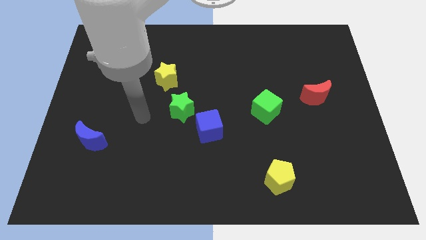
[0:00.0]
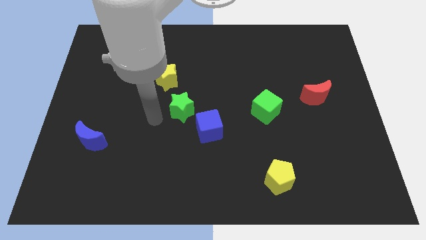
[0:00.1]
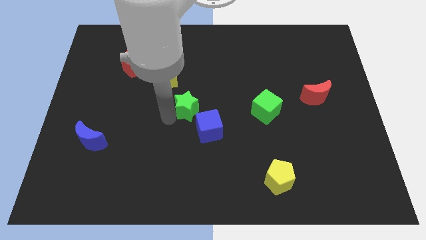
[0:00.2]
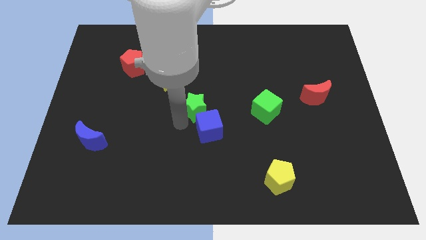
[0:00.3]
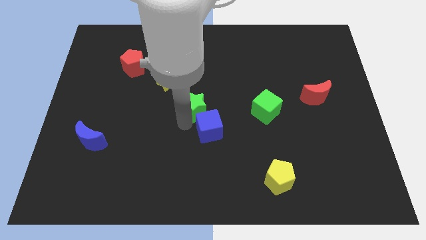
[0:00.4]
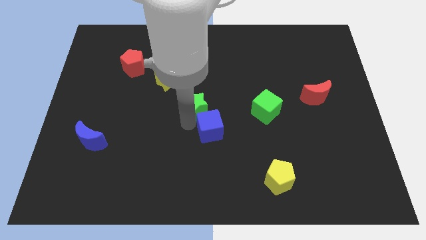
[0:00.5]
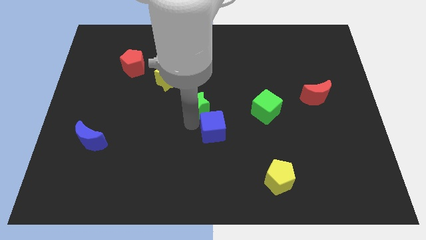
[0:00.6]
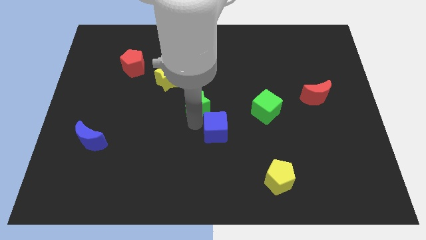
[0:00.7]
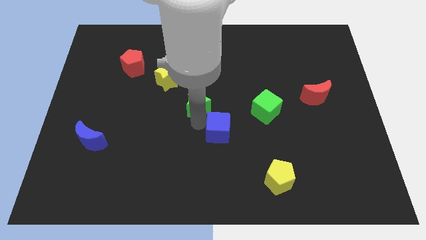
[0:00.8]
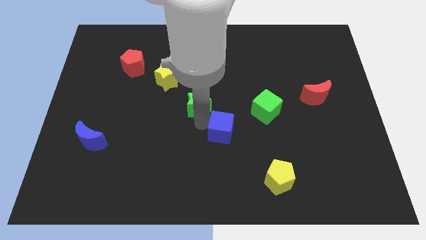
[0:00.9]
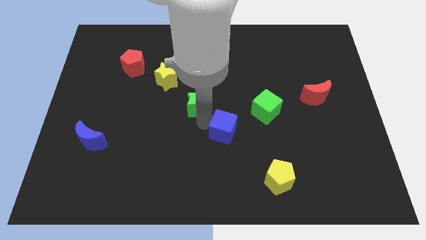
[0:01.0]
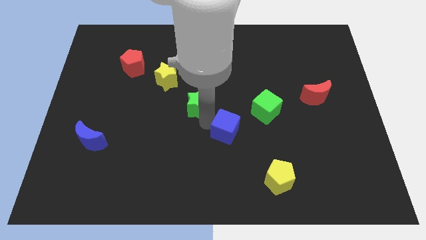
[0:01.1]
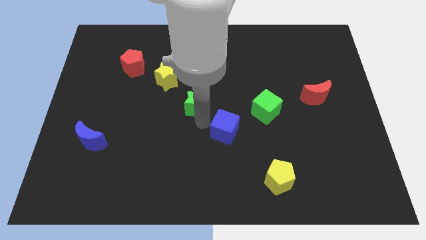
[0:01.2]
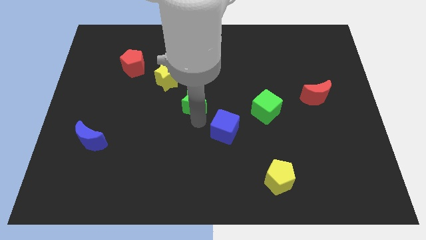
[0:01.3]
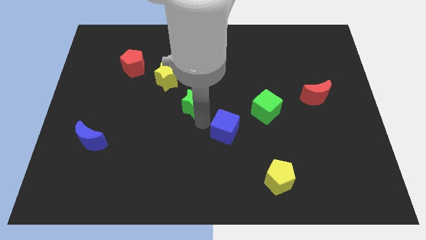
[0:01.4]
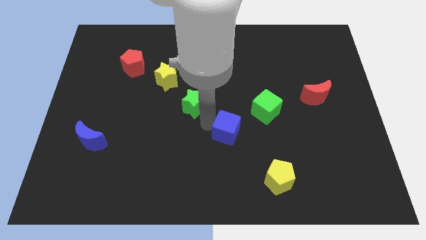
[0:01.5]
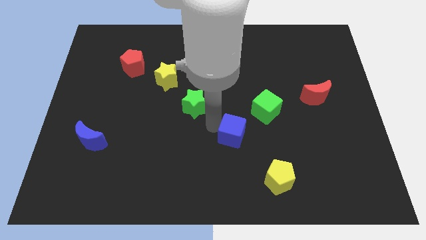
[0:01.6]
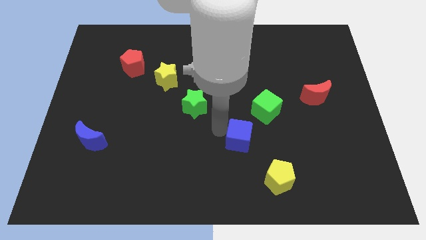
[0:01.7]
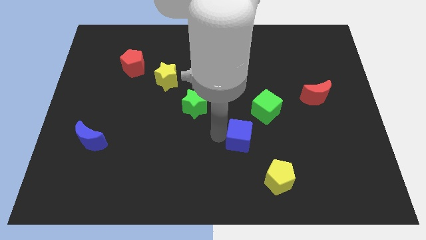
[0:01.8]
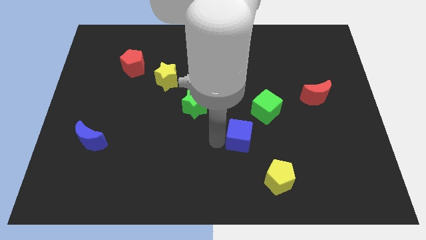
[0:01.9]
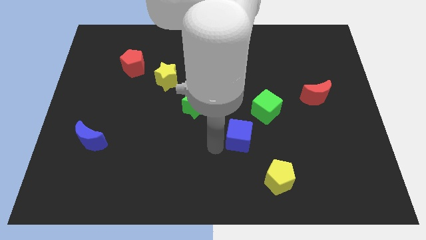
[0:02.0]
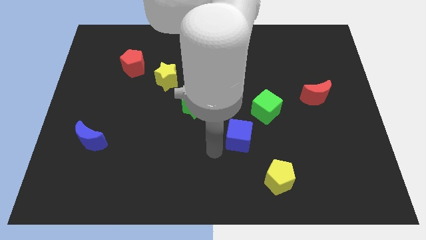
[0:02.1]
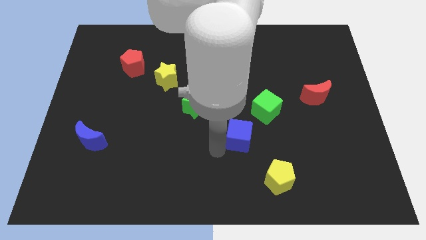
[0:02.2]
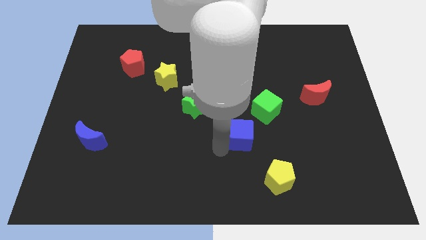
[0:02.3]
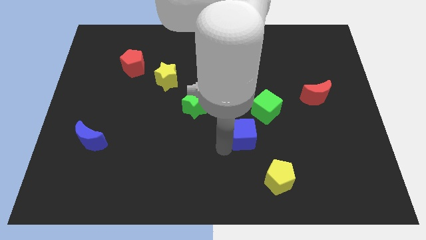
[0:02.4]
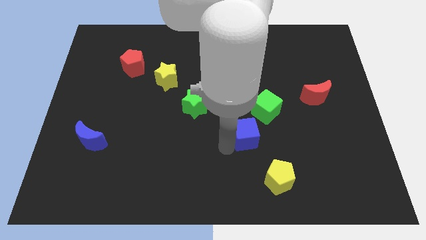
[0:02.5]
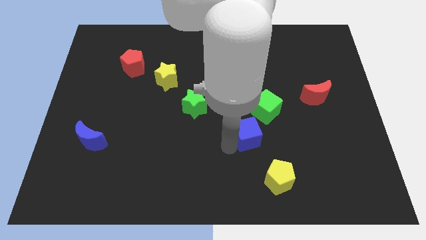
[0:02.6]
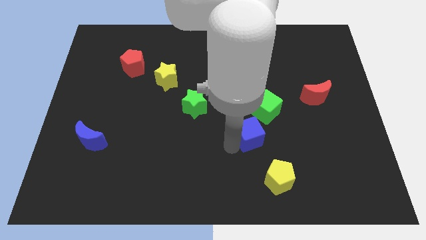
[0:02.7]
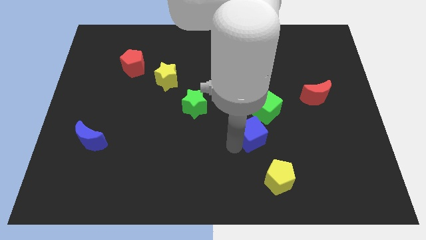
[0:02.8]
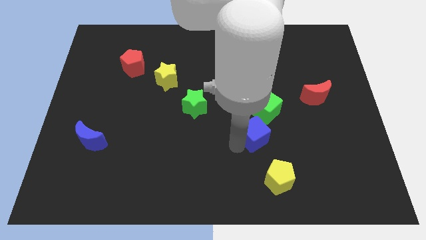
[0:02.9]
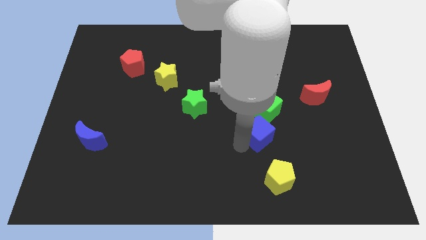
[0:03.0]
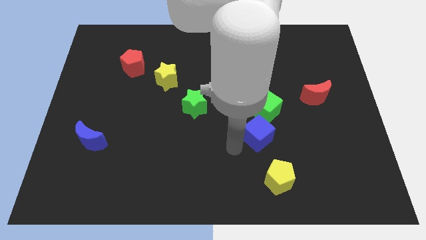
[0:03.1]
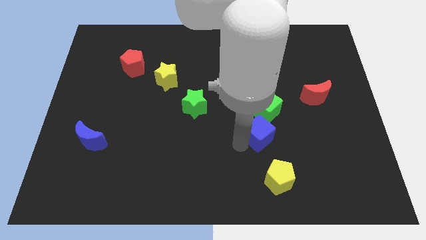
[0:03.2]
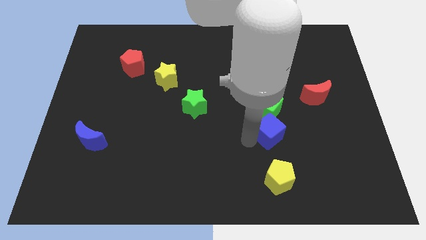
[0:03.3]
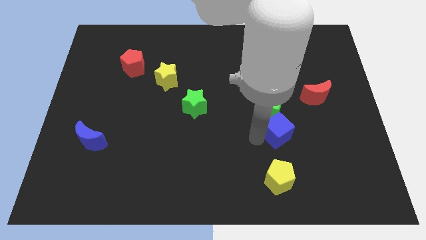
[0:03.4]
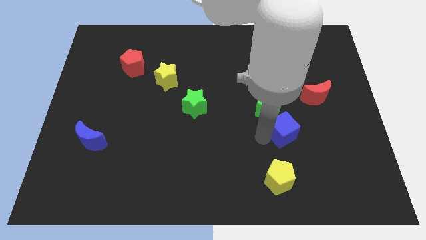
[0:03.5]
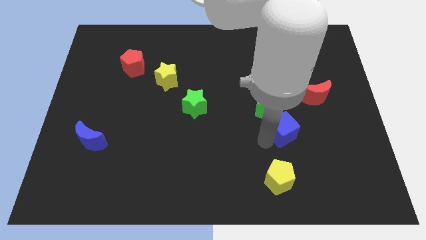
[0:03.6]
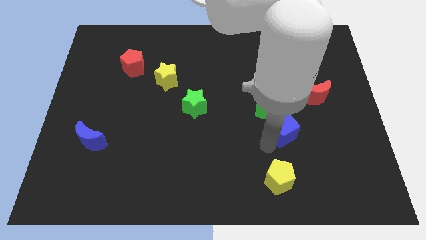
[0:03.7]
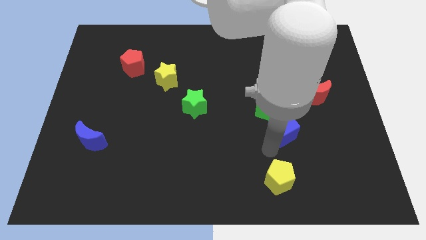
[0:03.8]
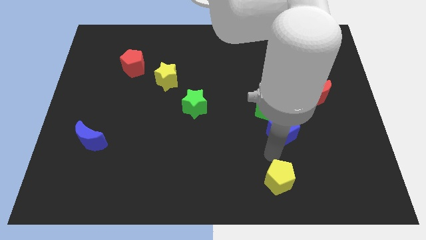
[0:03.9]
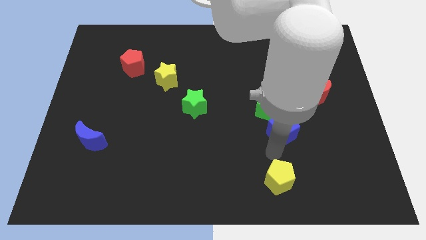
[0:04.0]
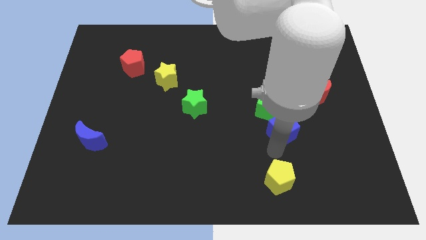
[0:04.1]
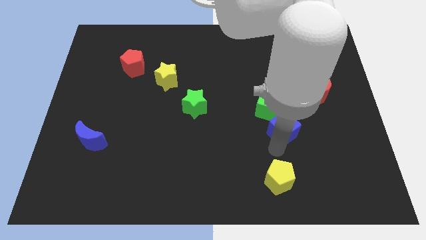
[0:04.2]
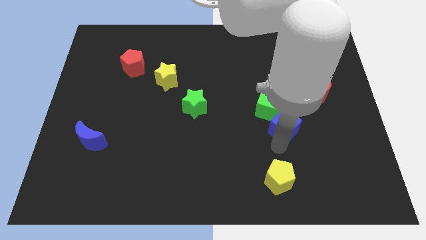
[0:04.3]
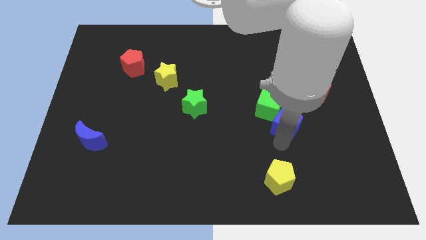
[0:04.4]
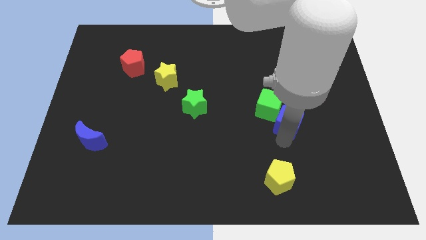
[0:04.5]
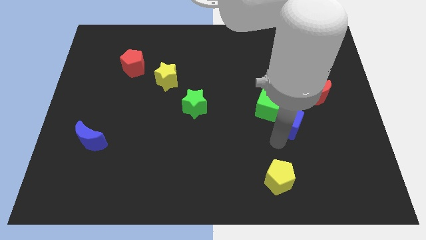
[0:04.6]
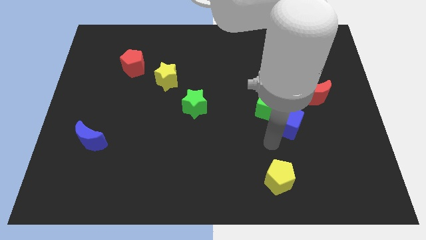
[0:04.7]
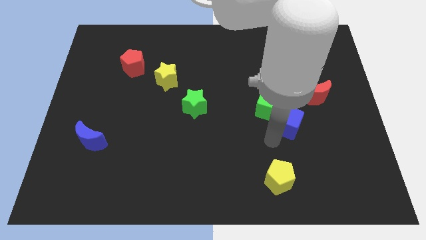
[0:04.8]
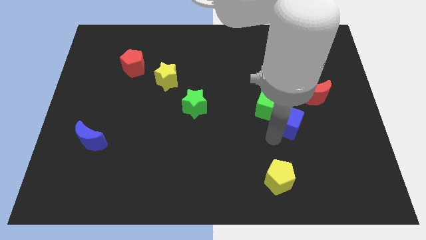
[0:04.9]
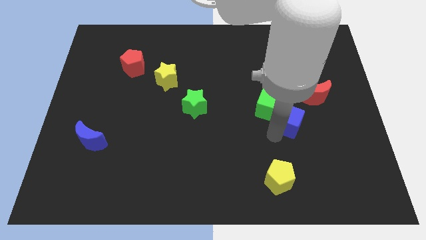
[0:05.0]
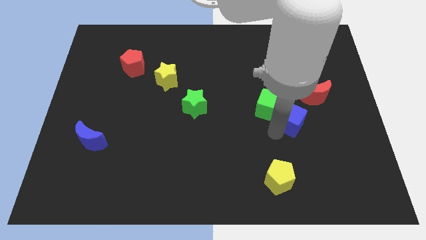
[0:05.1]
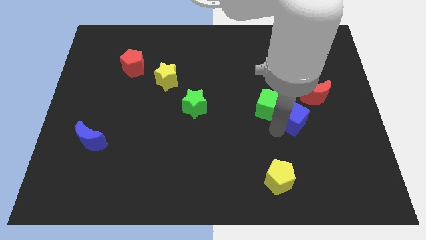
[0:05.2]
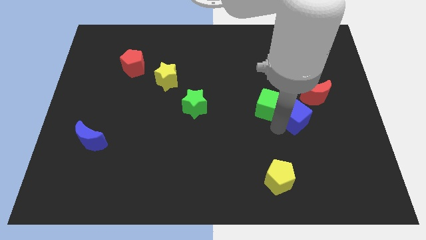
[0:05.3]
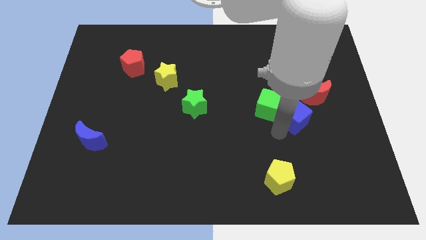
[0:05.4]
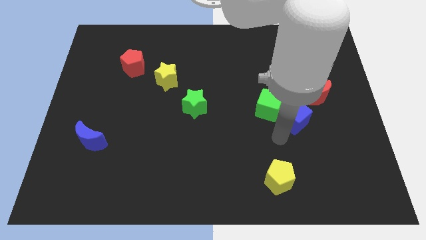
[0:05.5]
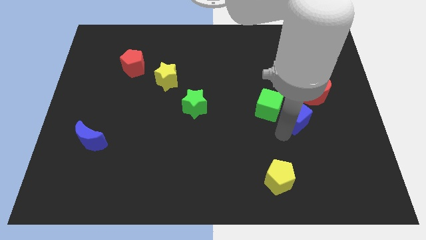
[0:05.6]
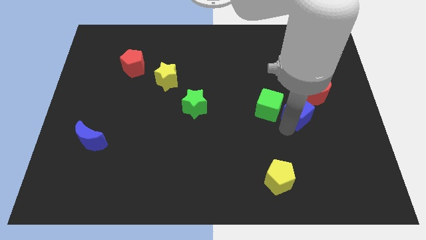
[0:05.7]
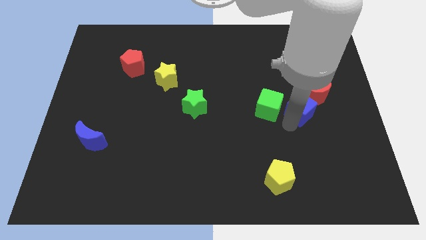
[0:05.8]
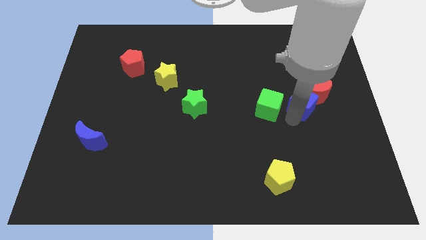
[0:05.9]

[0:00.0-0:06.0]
slide the blue cube towards the red moon

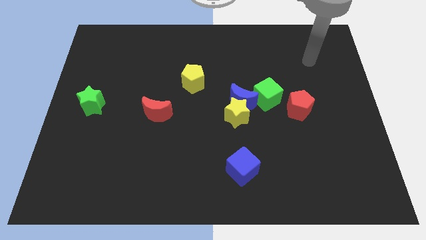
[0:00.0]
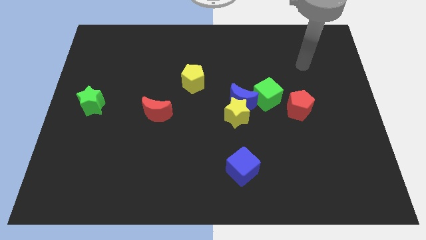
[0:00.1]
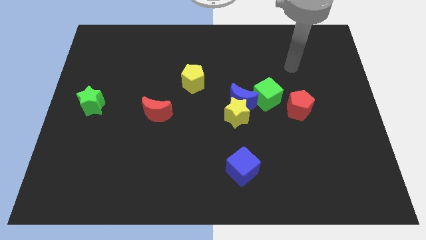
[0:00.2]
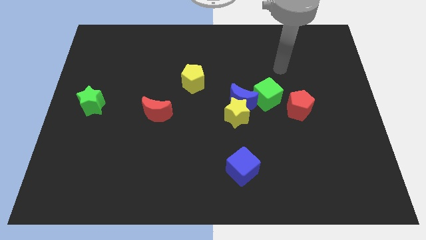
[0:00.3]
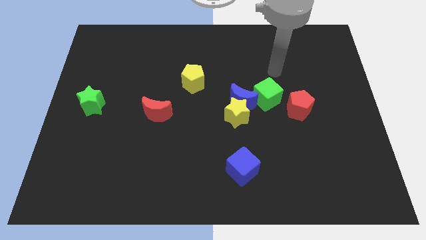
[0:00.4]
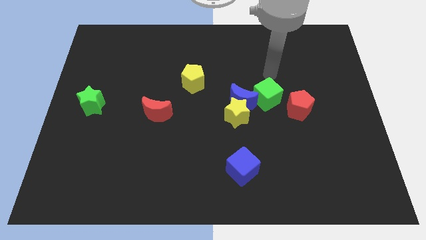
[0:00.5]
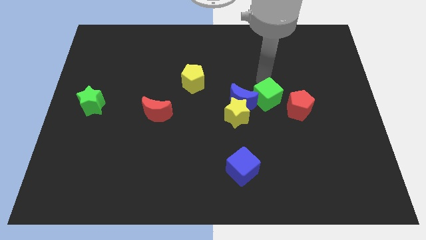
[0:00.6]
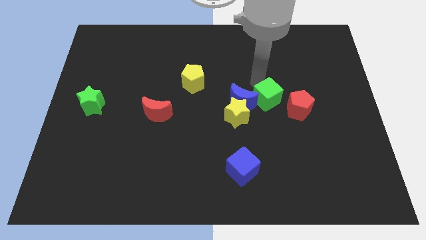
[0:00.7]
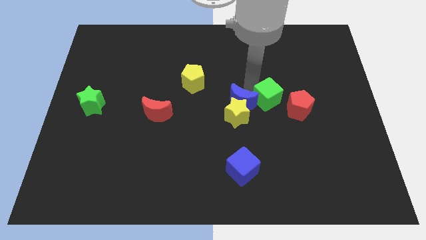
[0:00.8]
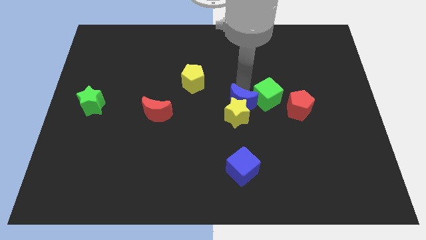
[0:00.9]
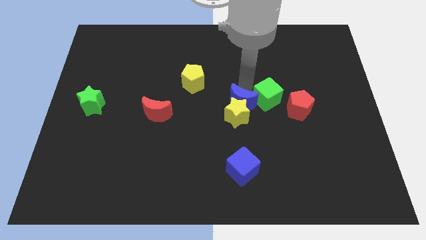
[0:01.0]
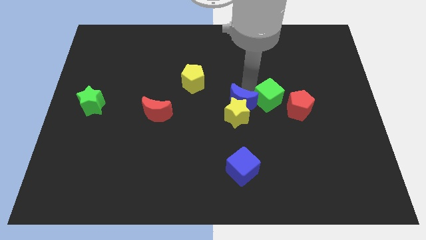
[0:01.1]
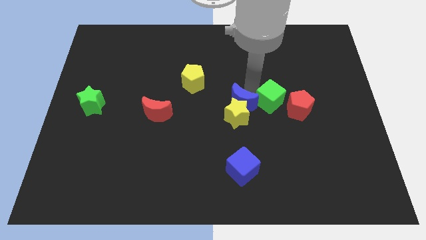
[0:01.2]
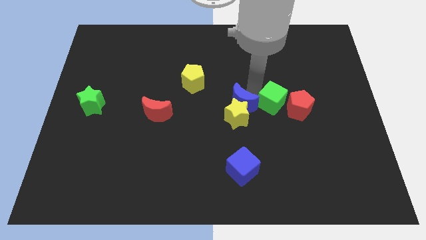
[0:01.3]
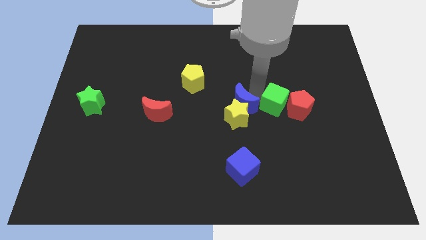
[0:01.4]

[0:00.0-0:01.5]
move the green cube close to the red pentagon

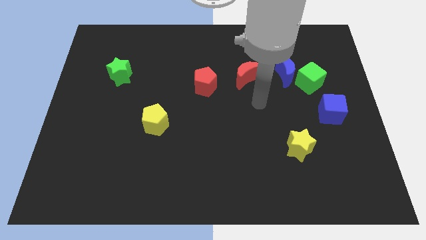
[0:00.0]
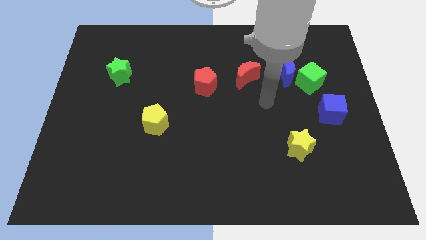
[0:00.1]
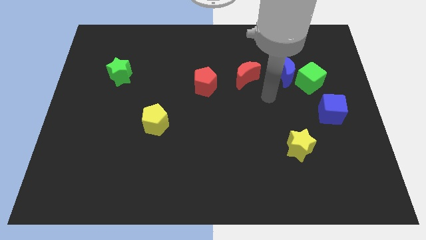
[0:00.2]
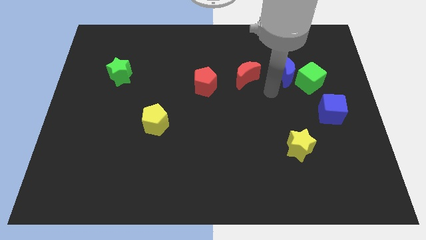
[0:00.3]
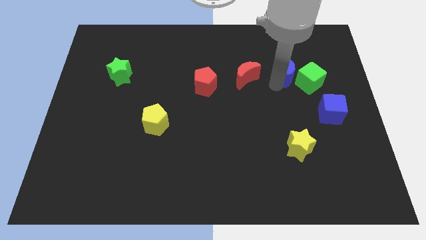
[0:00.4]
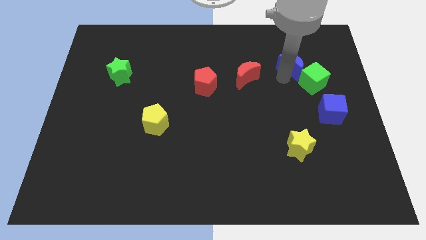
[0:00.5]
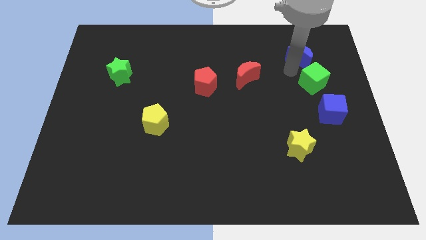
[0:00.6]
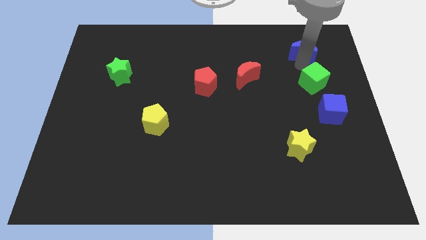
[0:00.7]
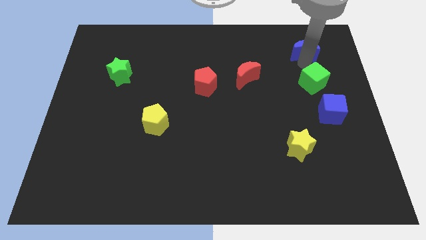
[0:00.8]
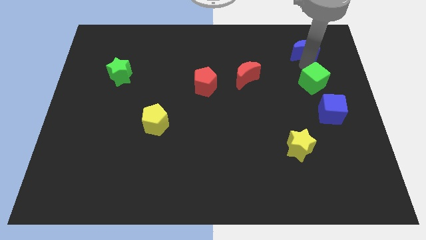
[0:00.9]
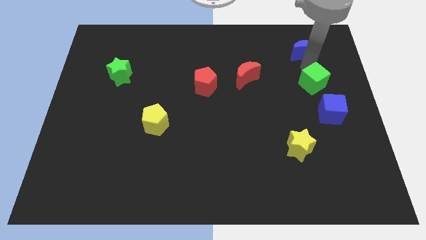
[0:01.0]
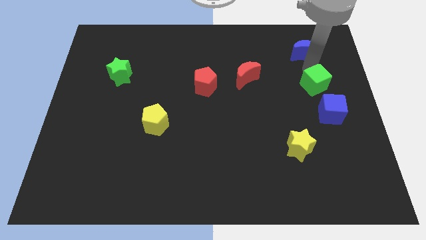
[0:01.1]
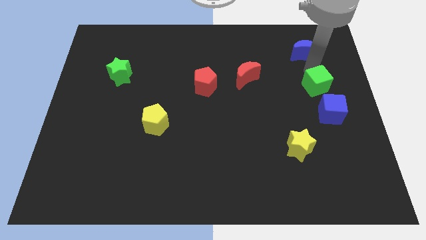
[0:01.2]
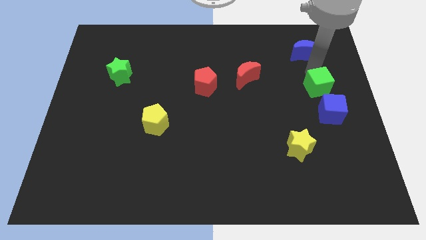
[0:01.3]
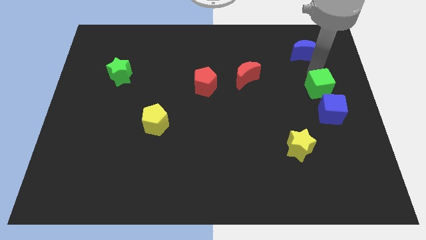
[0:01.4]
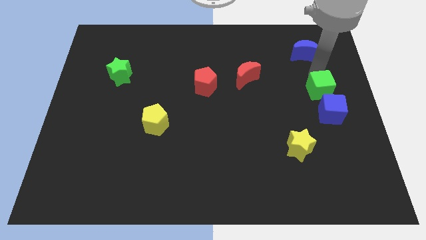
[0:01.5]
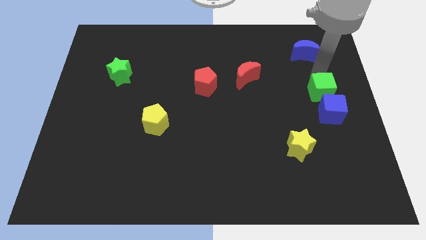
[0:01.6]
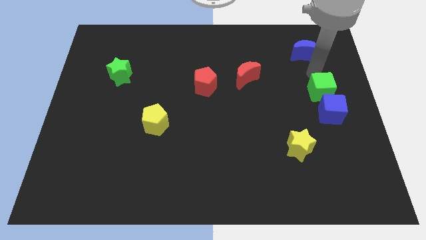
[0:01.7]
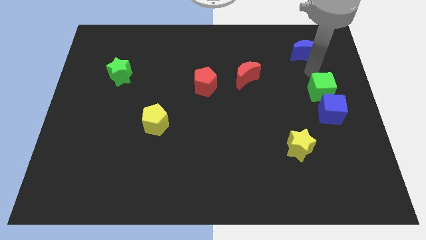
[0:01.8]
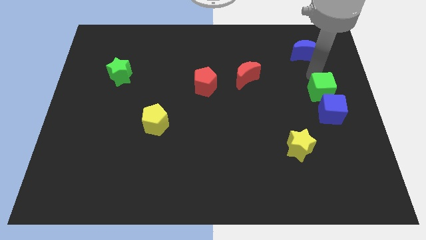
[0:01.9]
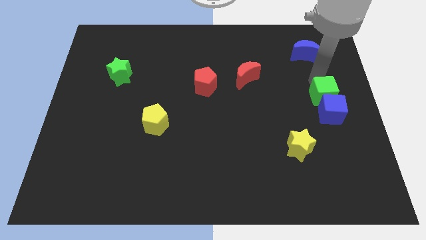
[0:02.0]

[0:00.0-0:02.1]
slide the green cube next to the blue cube
